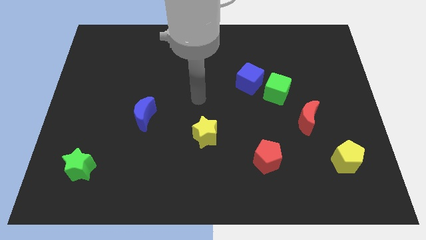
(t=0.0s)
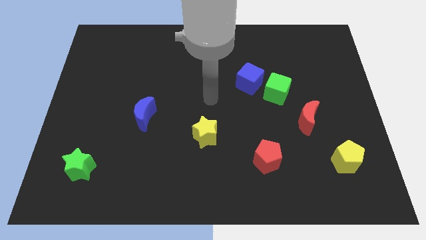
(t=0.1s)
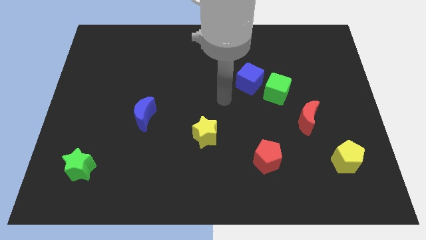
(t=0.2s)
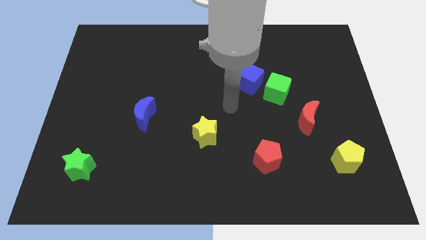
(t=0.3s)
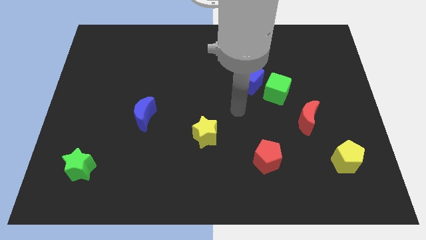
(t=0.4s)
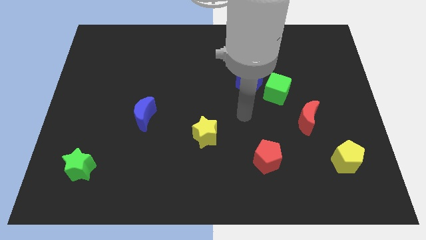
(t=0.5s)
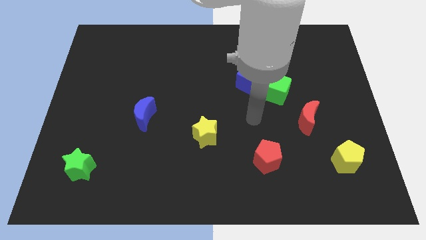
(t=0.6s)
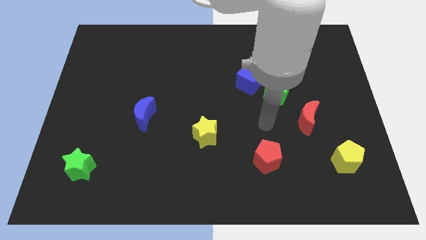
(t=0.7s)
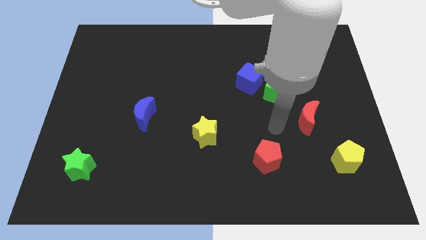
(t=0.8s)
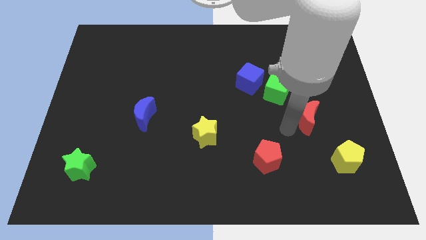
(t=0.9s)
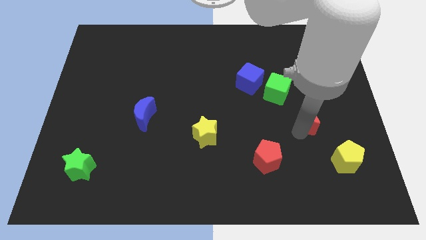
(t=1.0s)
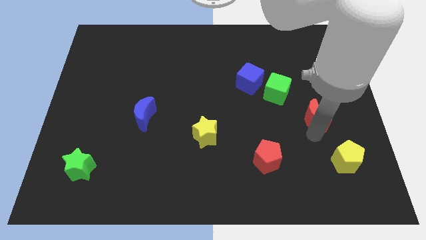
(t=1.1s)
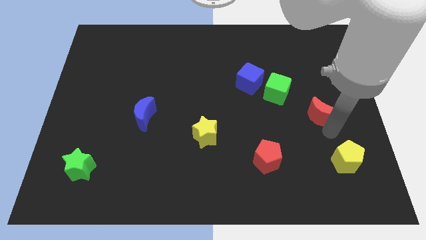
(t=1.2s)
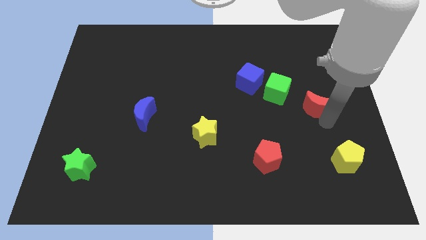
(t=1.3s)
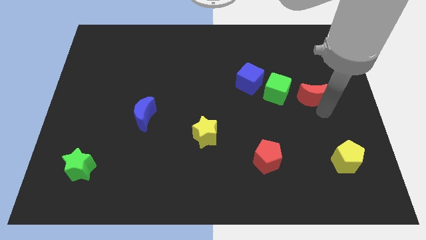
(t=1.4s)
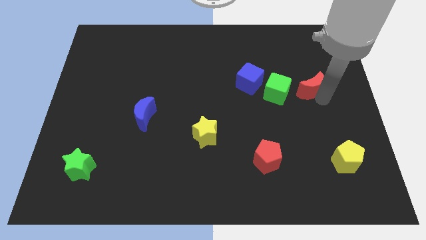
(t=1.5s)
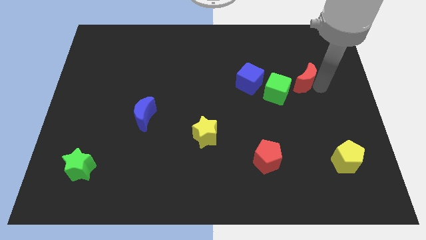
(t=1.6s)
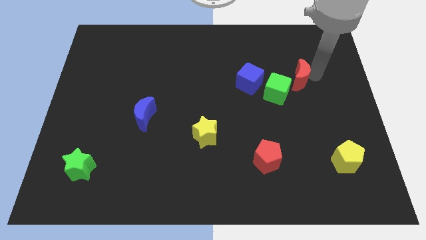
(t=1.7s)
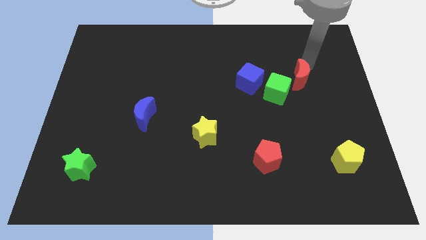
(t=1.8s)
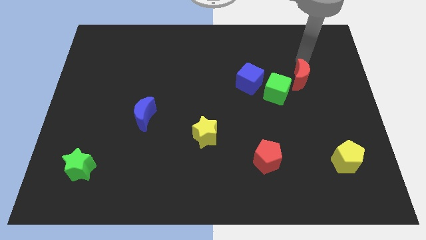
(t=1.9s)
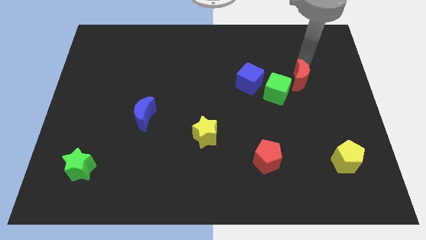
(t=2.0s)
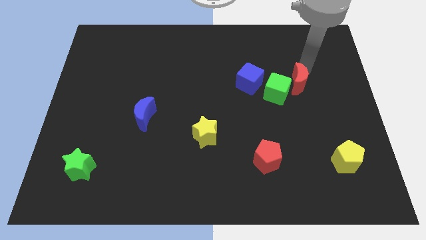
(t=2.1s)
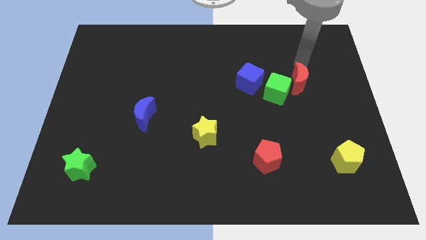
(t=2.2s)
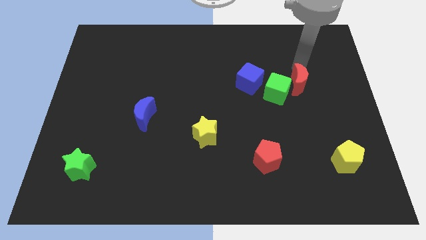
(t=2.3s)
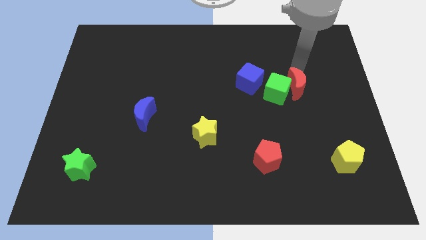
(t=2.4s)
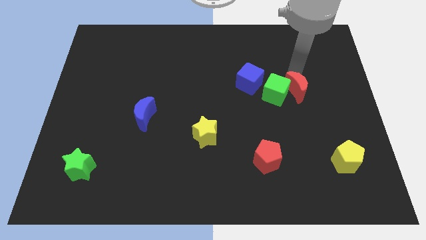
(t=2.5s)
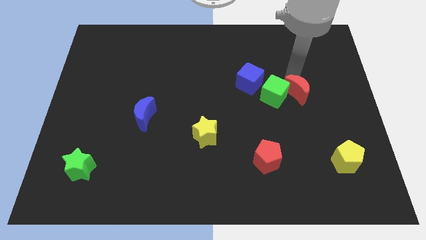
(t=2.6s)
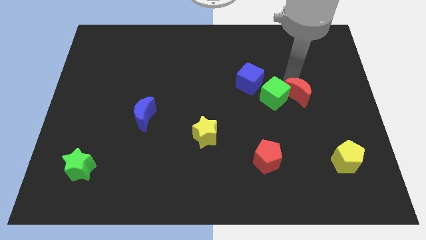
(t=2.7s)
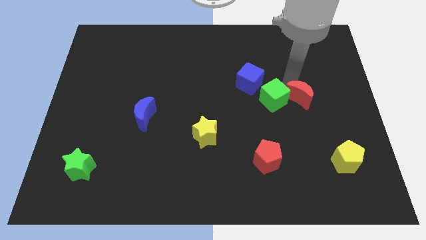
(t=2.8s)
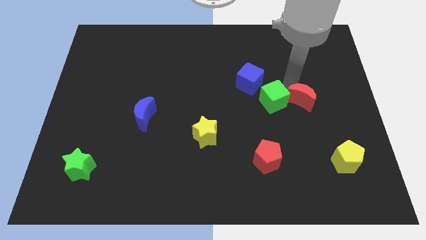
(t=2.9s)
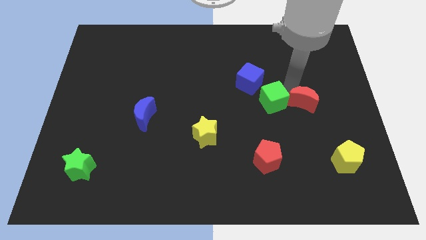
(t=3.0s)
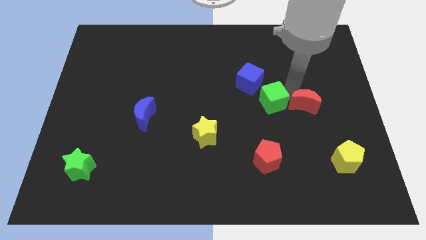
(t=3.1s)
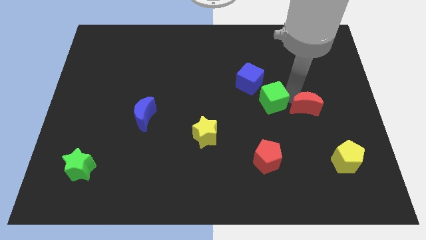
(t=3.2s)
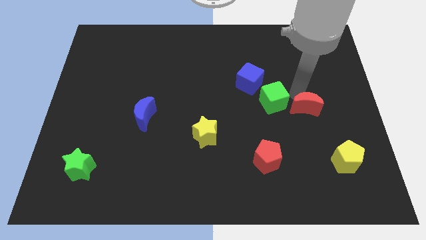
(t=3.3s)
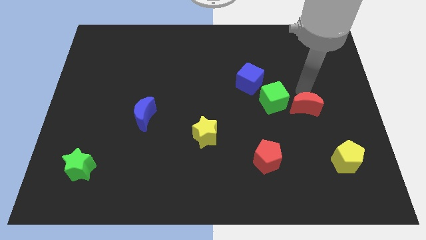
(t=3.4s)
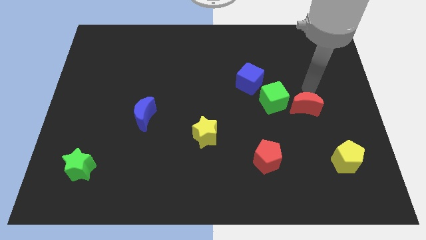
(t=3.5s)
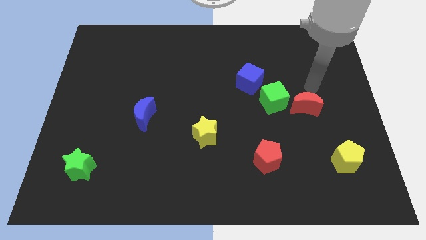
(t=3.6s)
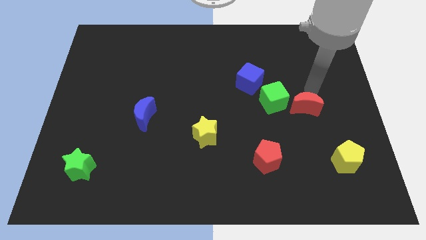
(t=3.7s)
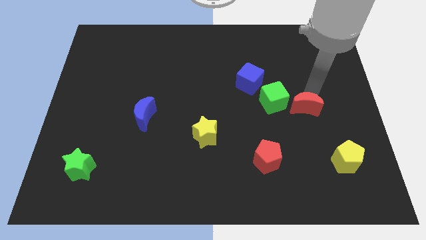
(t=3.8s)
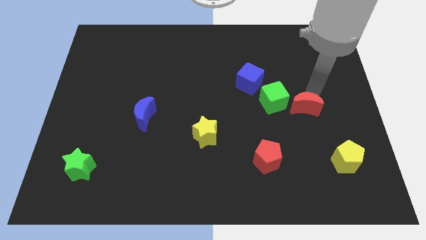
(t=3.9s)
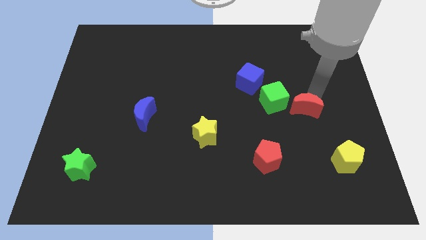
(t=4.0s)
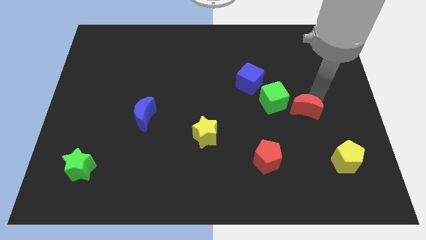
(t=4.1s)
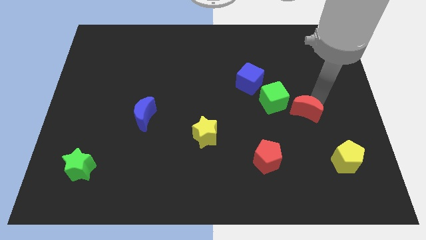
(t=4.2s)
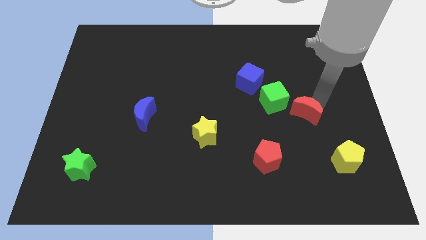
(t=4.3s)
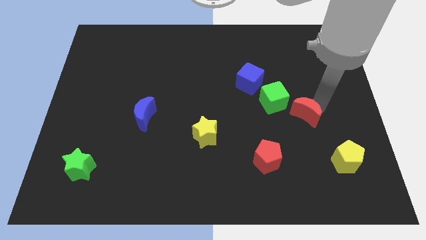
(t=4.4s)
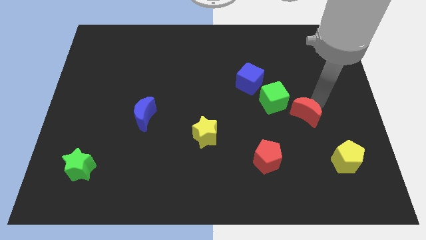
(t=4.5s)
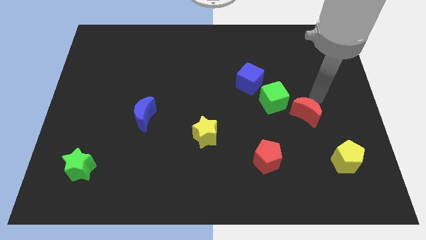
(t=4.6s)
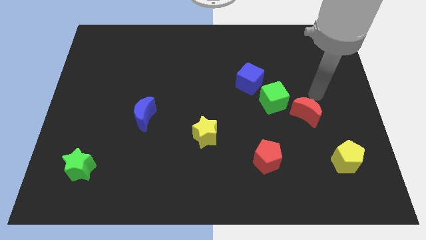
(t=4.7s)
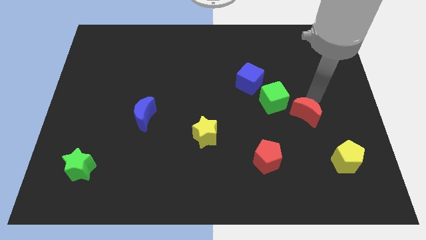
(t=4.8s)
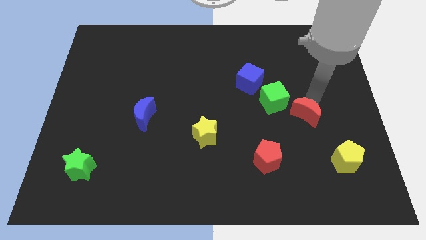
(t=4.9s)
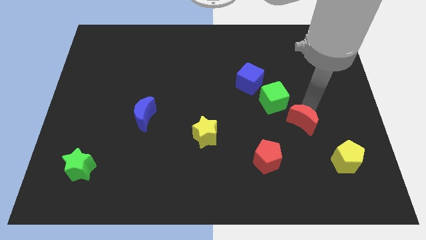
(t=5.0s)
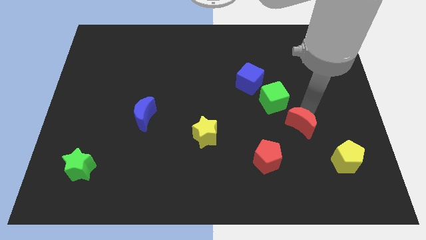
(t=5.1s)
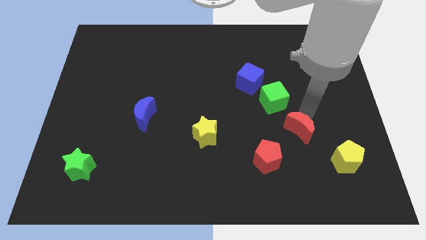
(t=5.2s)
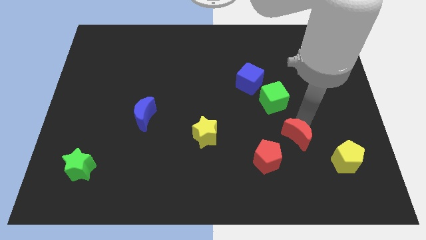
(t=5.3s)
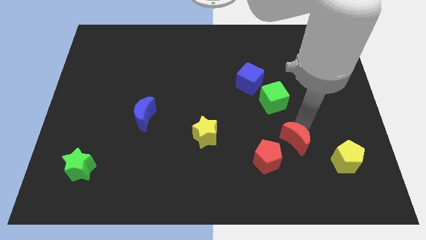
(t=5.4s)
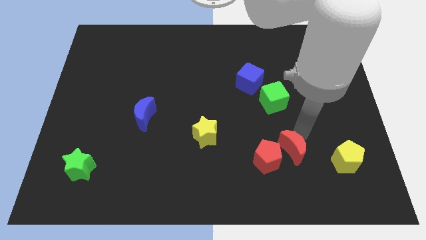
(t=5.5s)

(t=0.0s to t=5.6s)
put the red moon towards the red pentagon

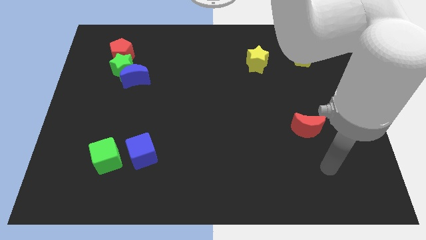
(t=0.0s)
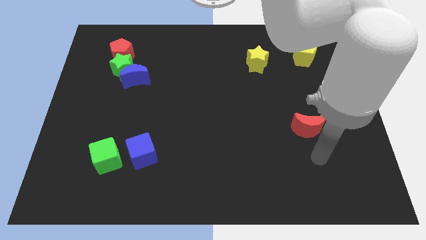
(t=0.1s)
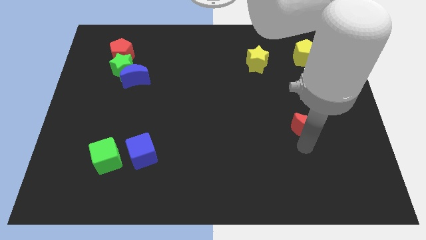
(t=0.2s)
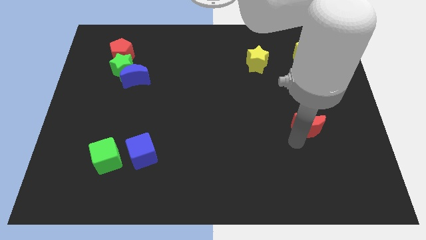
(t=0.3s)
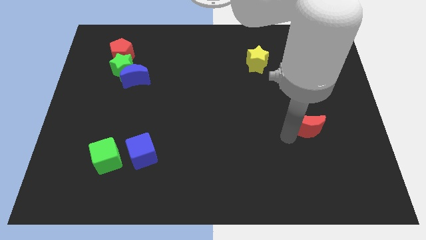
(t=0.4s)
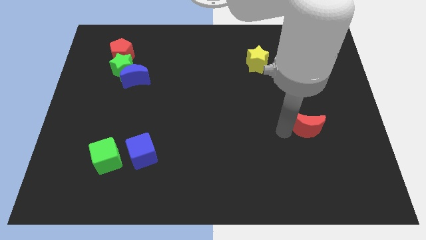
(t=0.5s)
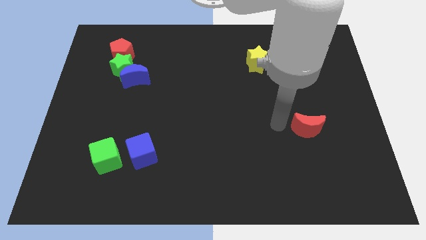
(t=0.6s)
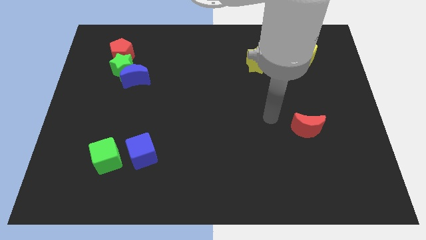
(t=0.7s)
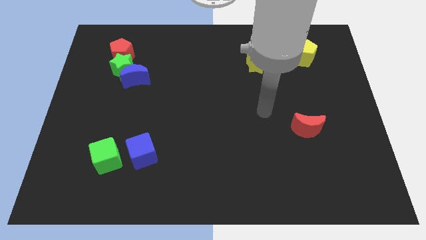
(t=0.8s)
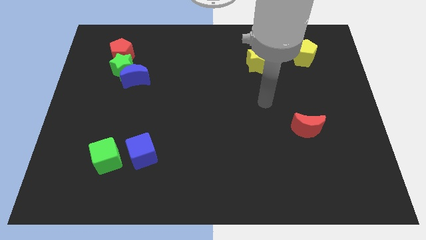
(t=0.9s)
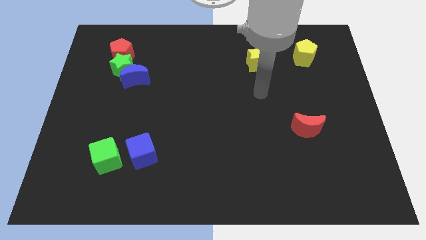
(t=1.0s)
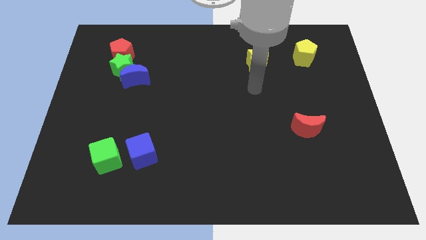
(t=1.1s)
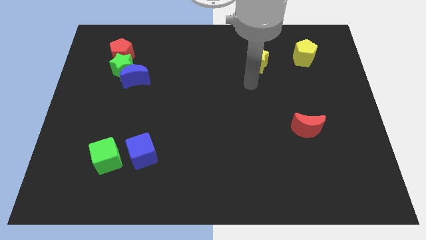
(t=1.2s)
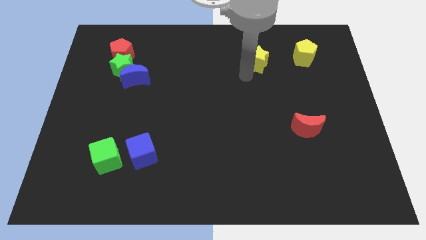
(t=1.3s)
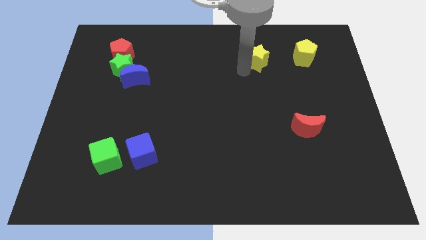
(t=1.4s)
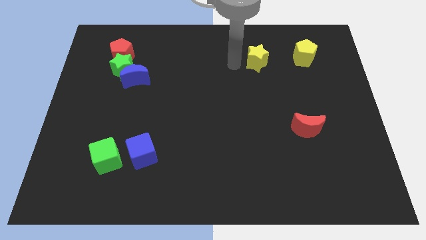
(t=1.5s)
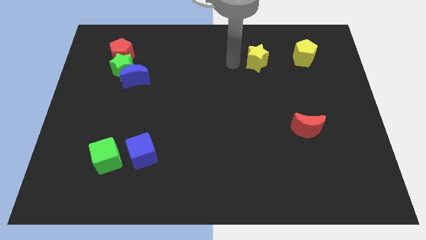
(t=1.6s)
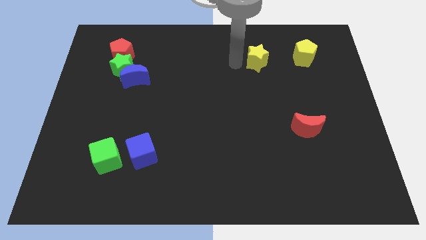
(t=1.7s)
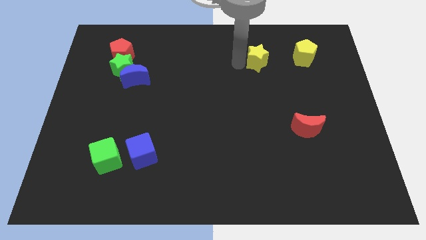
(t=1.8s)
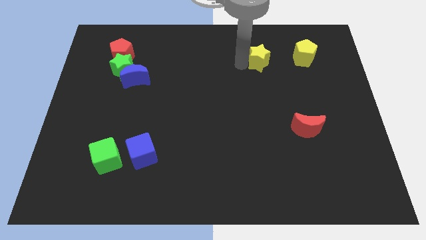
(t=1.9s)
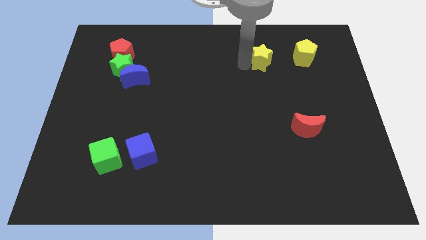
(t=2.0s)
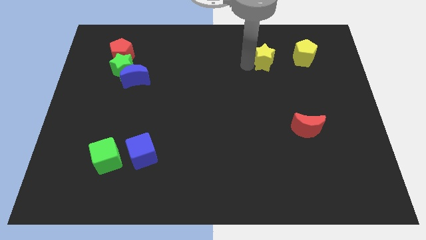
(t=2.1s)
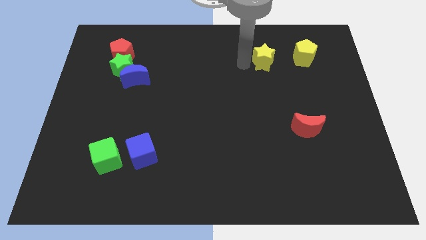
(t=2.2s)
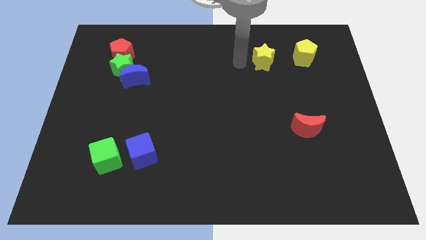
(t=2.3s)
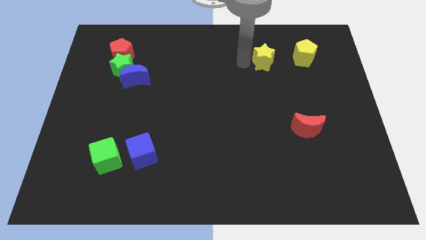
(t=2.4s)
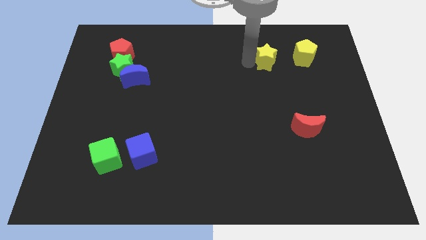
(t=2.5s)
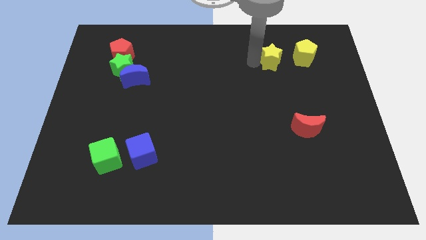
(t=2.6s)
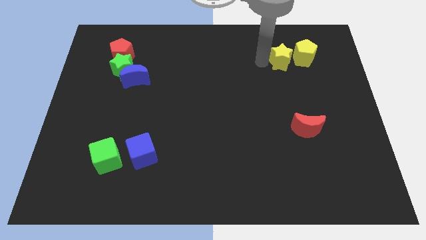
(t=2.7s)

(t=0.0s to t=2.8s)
put the yellow star towards the yellow pentagon
